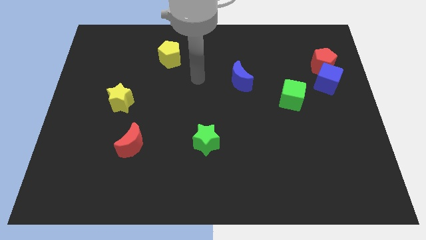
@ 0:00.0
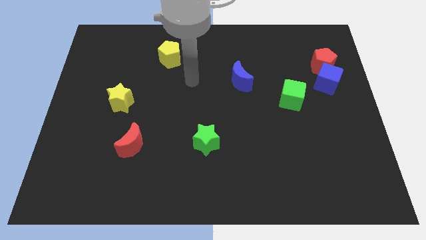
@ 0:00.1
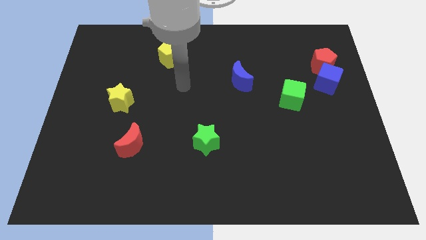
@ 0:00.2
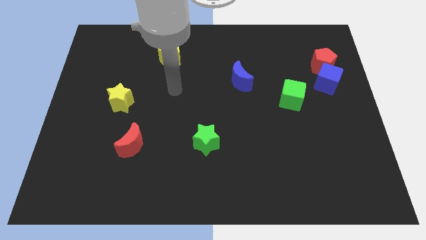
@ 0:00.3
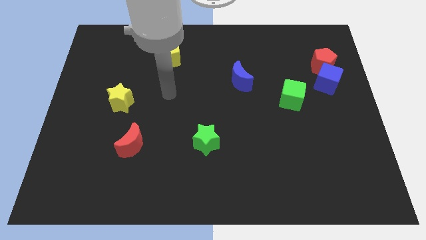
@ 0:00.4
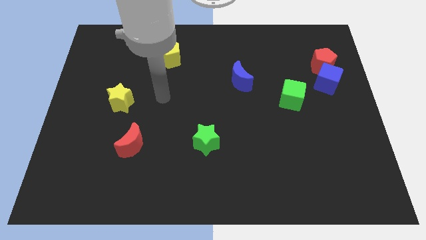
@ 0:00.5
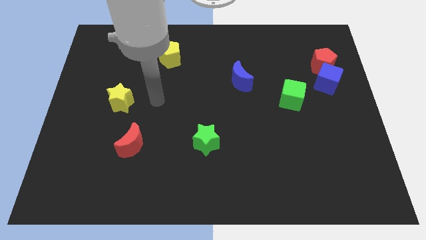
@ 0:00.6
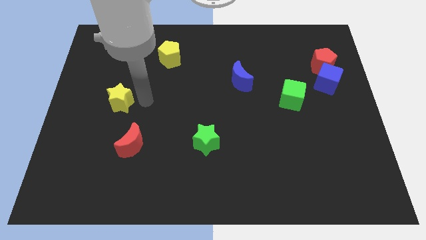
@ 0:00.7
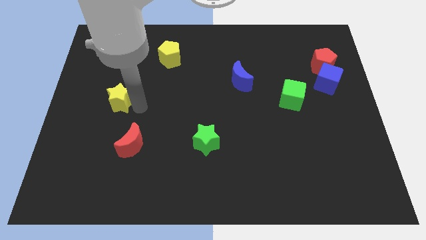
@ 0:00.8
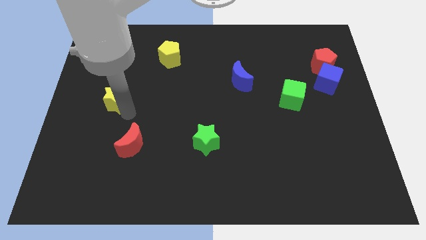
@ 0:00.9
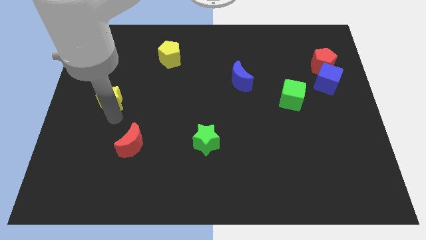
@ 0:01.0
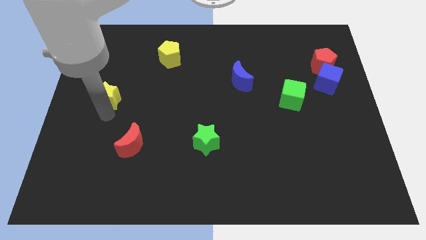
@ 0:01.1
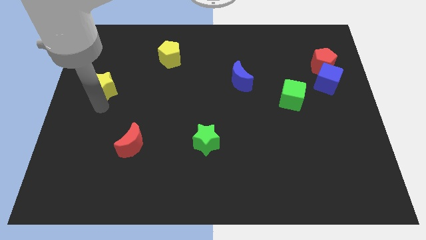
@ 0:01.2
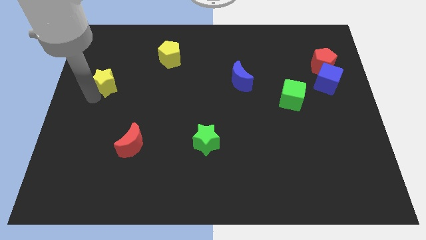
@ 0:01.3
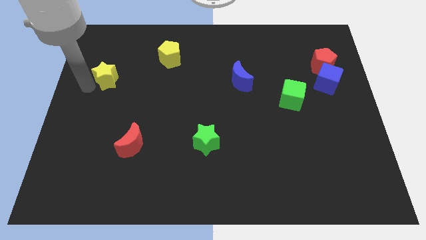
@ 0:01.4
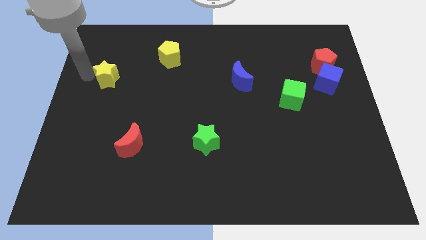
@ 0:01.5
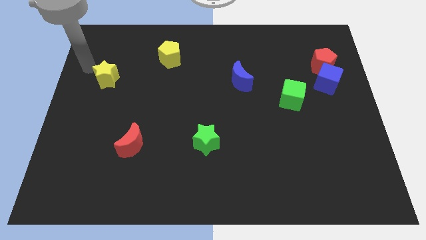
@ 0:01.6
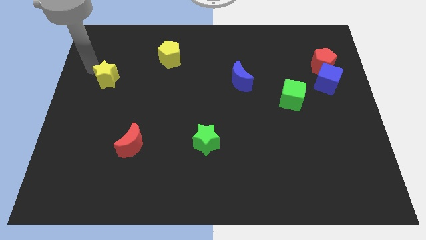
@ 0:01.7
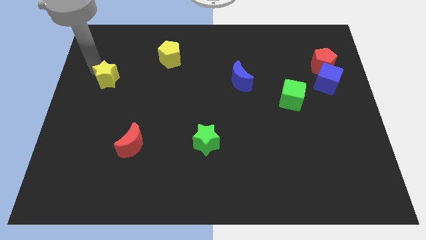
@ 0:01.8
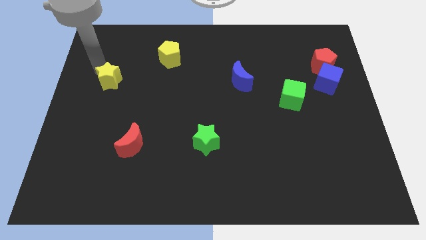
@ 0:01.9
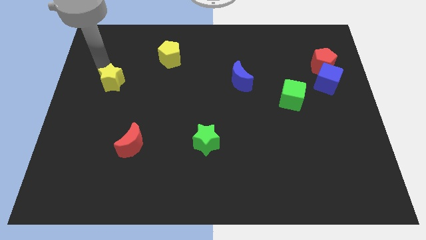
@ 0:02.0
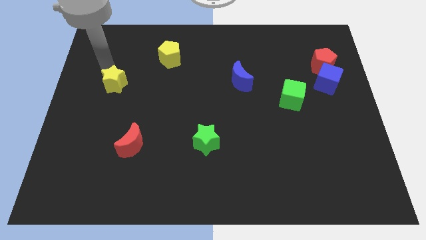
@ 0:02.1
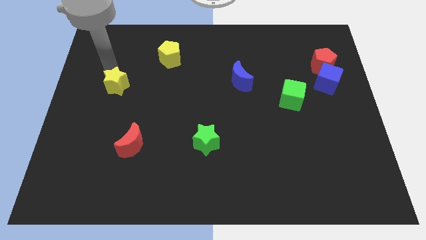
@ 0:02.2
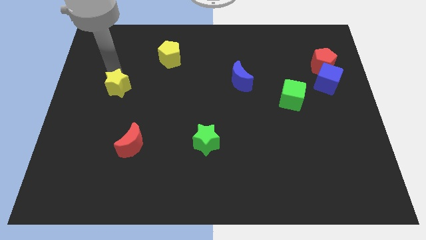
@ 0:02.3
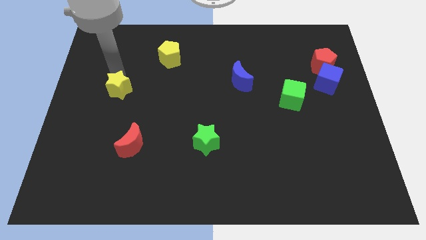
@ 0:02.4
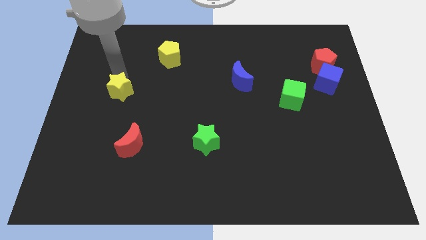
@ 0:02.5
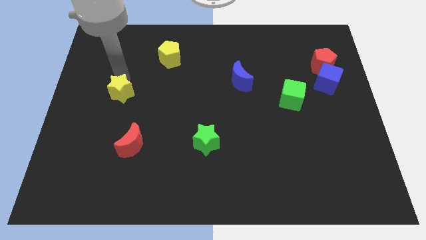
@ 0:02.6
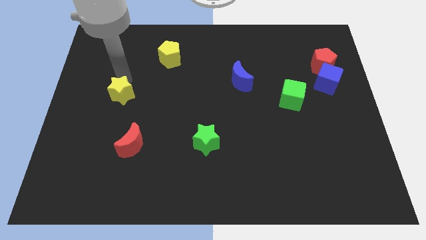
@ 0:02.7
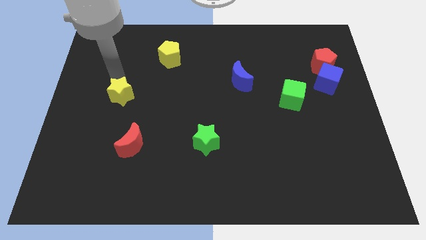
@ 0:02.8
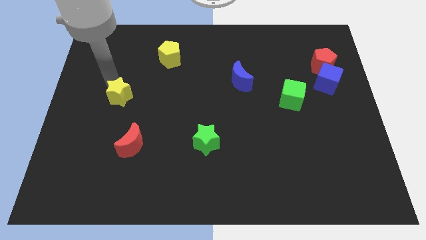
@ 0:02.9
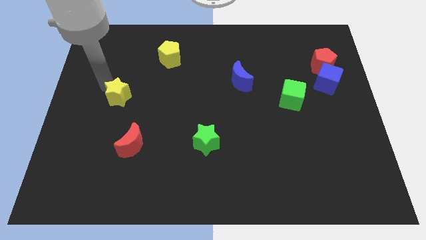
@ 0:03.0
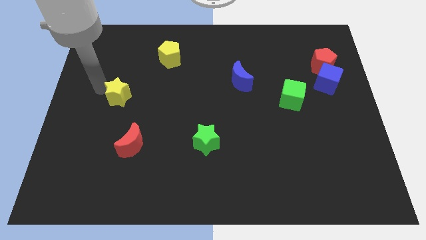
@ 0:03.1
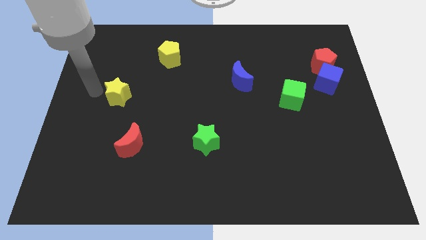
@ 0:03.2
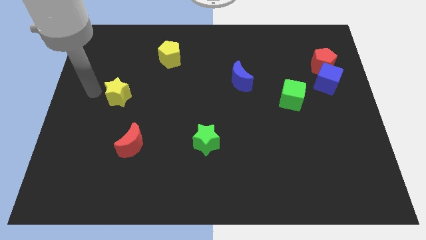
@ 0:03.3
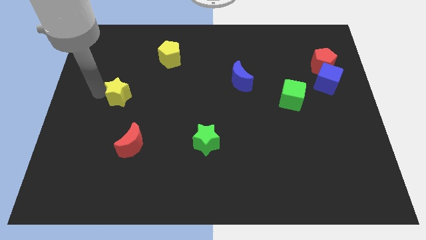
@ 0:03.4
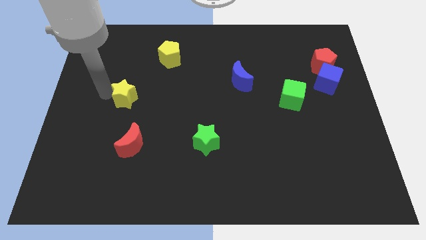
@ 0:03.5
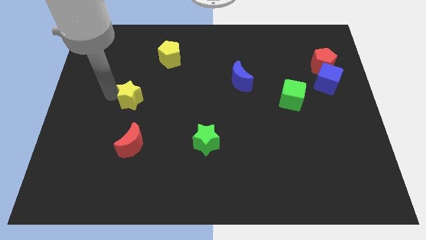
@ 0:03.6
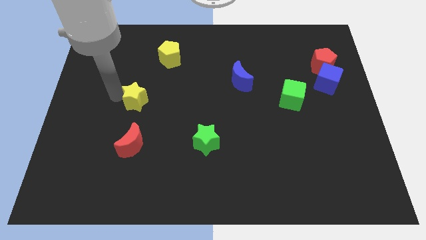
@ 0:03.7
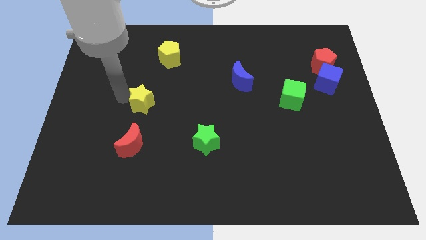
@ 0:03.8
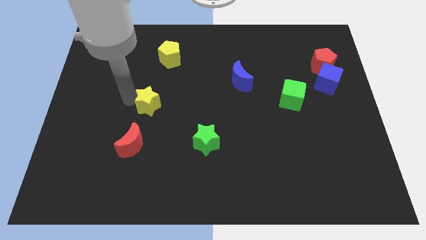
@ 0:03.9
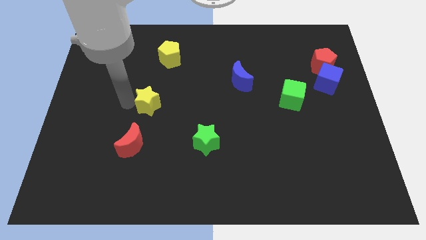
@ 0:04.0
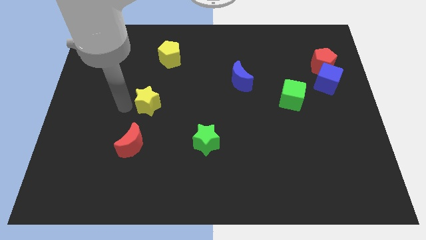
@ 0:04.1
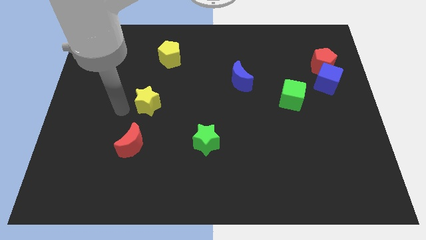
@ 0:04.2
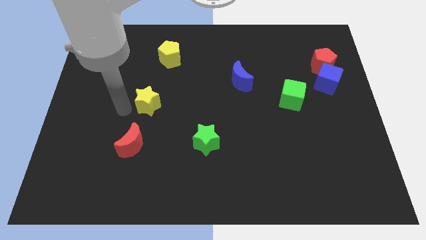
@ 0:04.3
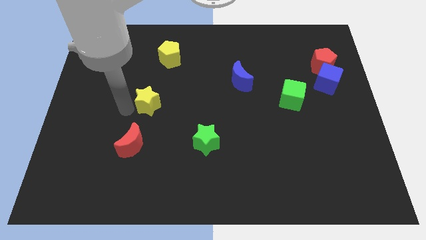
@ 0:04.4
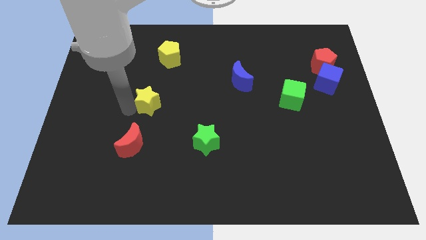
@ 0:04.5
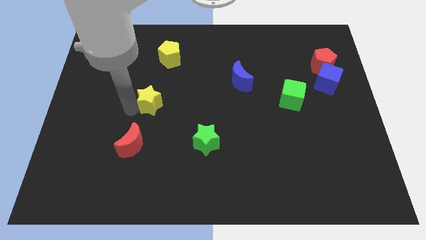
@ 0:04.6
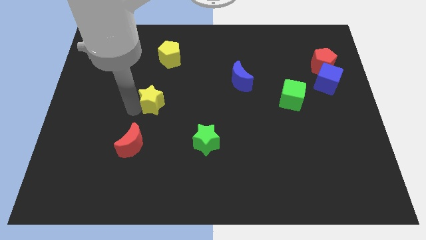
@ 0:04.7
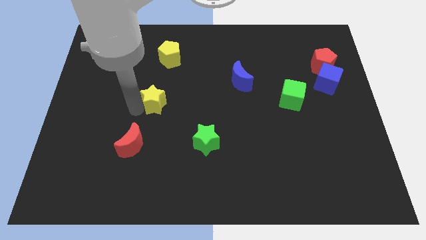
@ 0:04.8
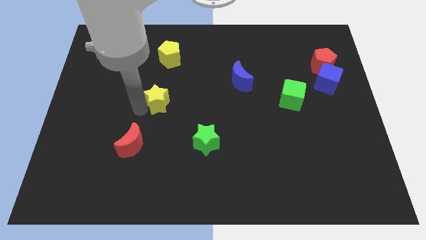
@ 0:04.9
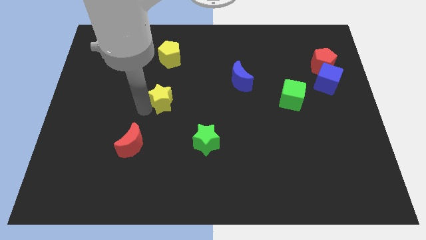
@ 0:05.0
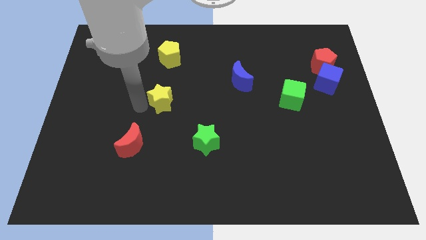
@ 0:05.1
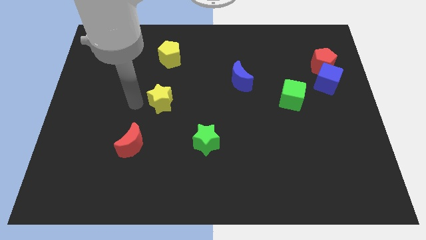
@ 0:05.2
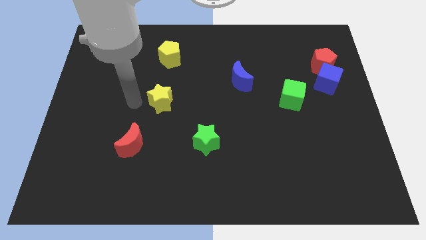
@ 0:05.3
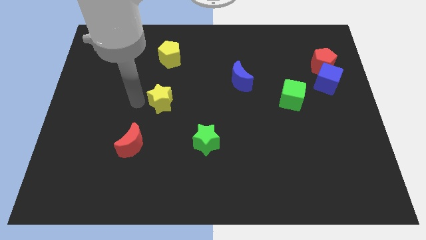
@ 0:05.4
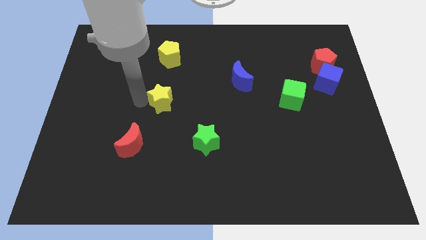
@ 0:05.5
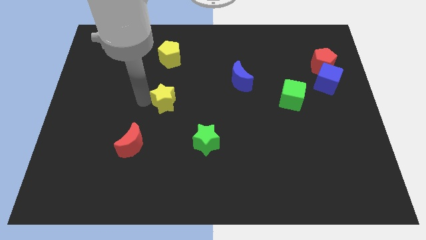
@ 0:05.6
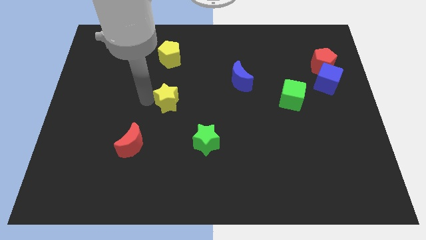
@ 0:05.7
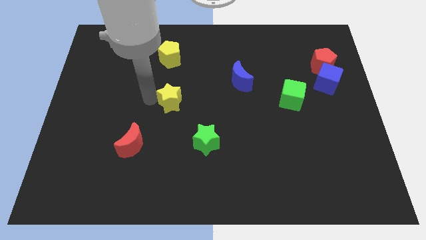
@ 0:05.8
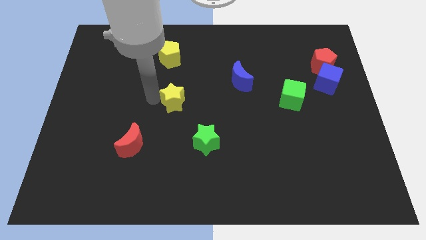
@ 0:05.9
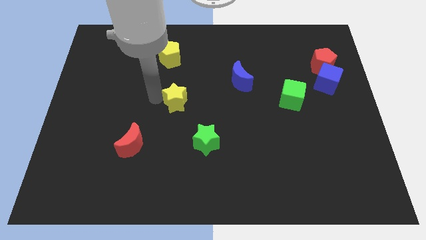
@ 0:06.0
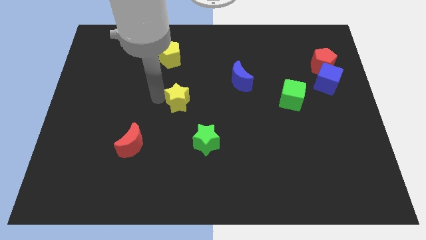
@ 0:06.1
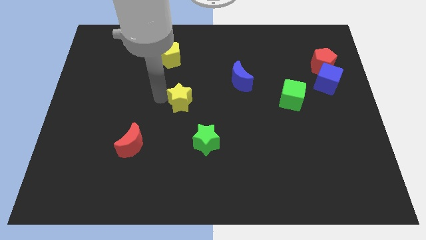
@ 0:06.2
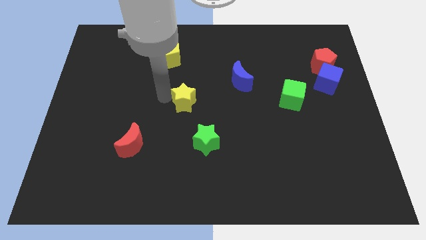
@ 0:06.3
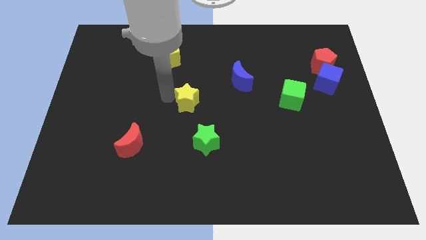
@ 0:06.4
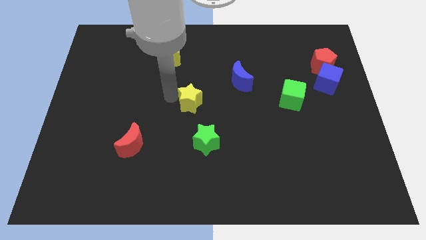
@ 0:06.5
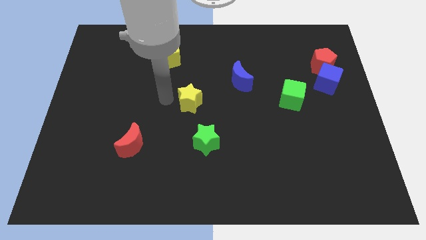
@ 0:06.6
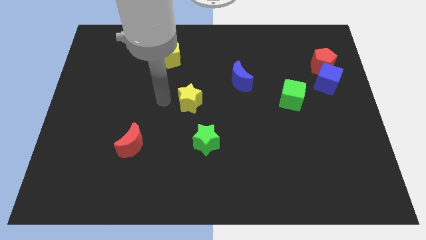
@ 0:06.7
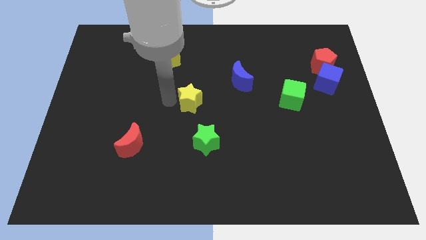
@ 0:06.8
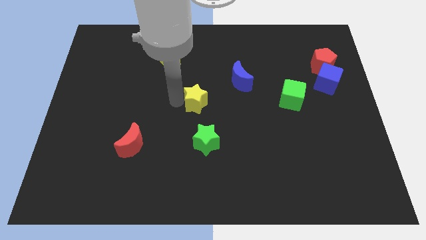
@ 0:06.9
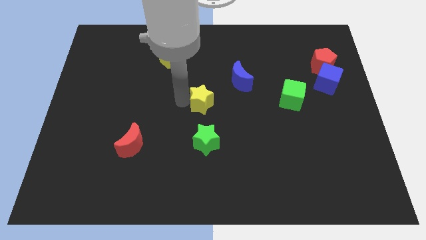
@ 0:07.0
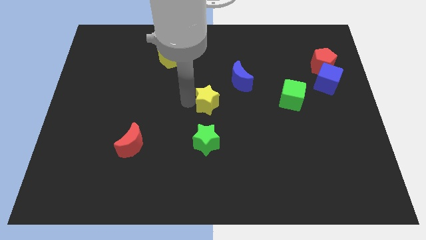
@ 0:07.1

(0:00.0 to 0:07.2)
move the yellow star right

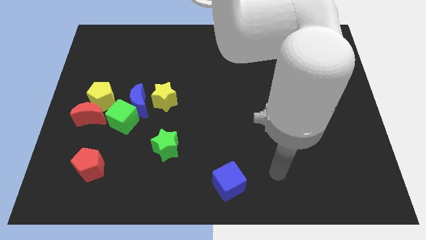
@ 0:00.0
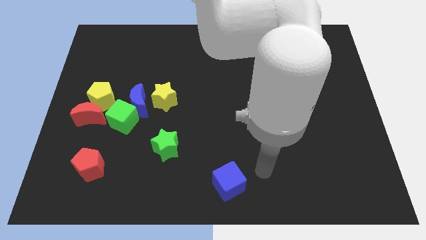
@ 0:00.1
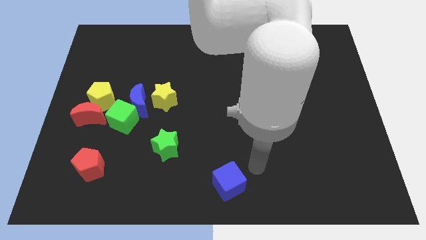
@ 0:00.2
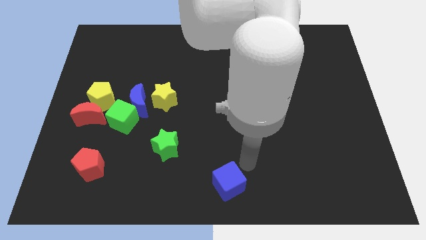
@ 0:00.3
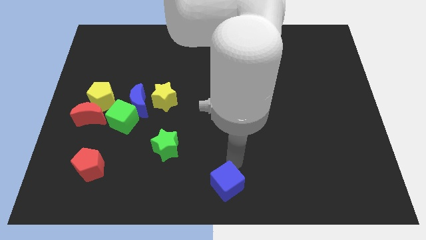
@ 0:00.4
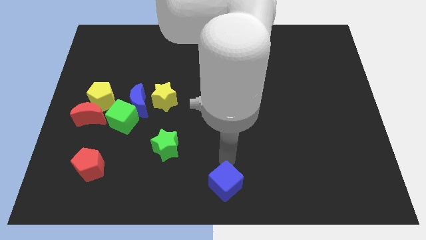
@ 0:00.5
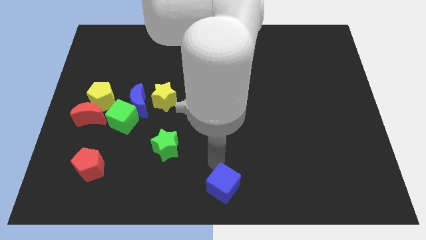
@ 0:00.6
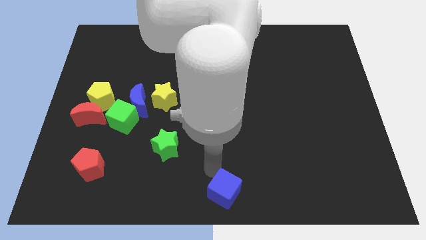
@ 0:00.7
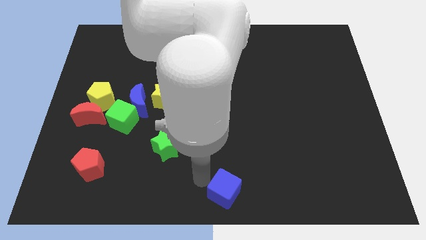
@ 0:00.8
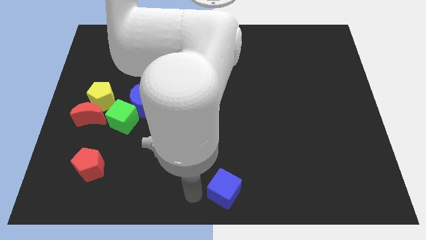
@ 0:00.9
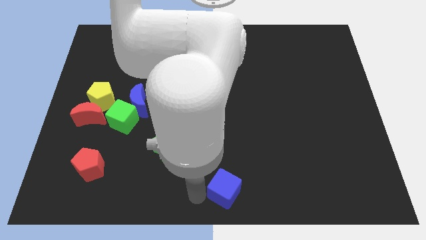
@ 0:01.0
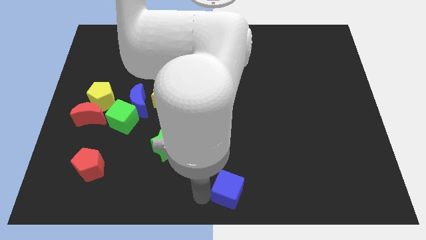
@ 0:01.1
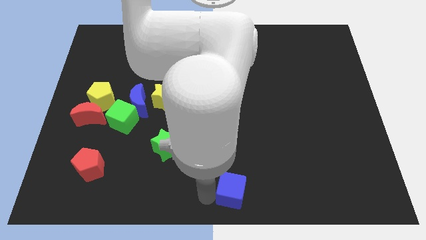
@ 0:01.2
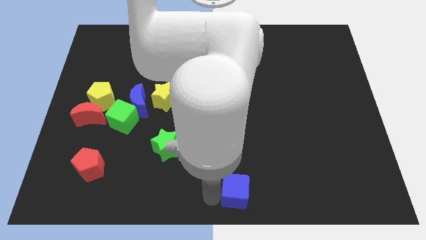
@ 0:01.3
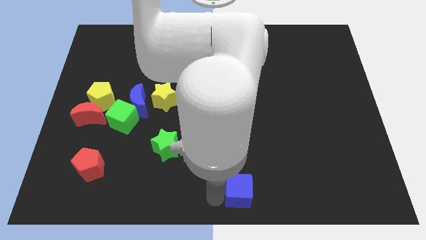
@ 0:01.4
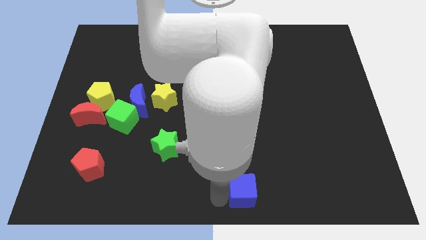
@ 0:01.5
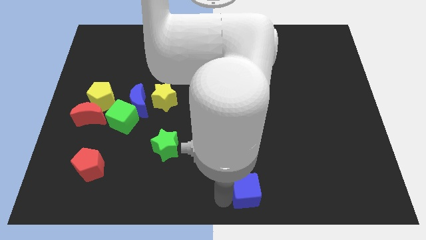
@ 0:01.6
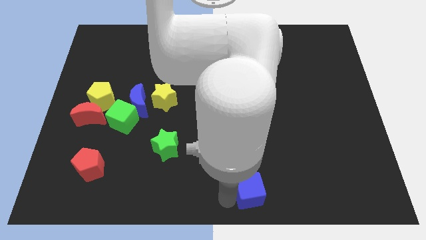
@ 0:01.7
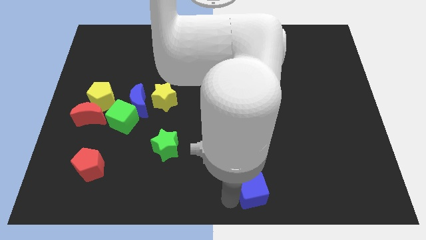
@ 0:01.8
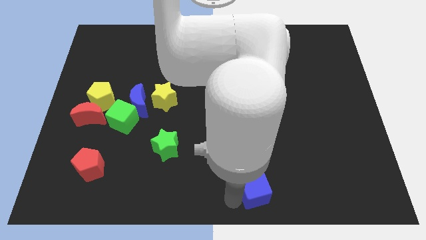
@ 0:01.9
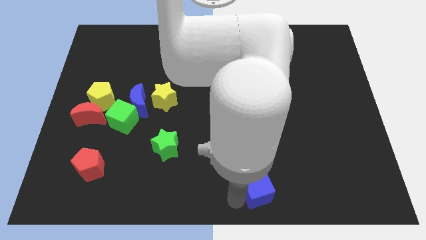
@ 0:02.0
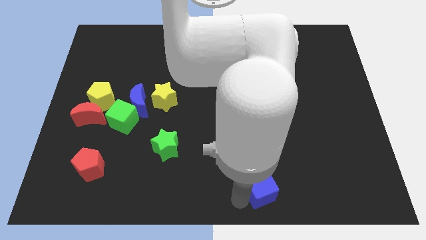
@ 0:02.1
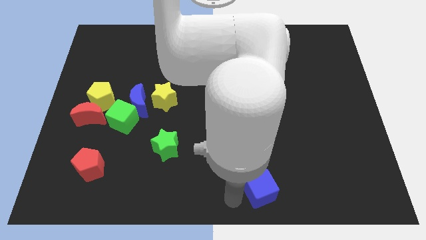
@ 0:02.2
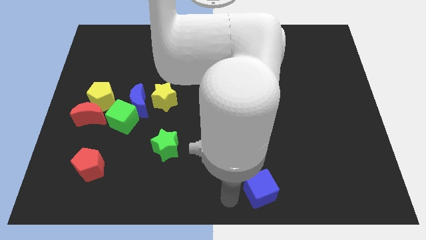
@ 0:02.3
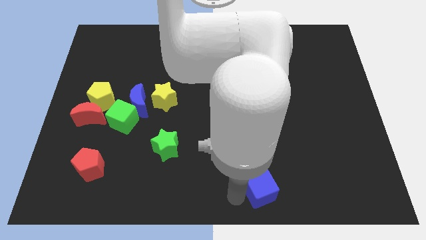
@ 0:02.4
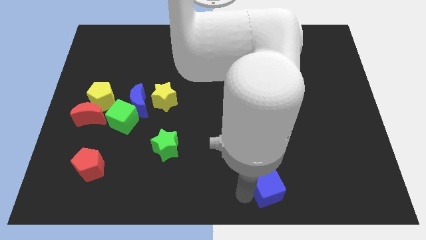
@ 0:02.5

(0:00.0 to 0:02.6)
slightly push the blue cube right
